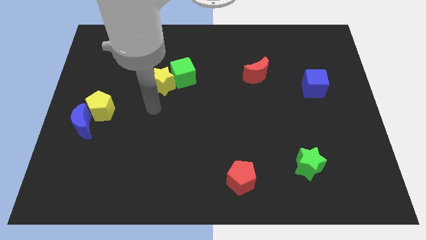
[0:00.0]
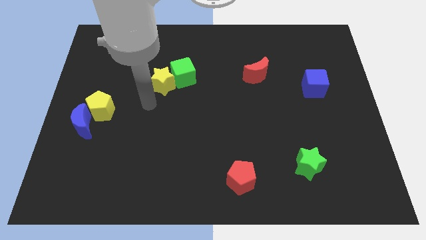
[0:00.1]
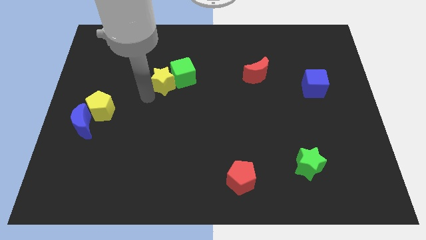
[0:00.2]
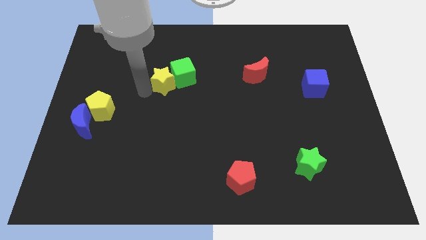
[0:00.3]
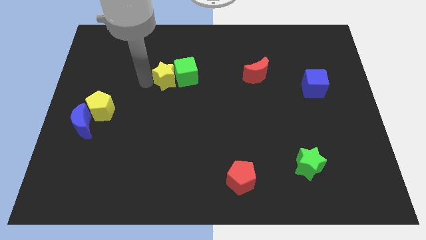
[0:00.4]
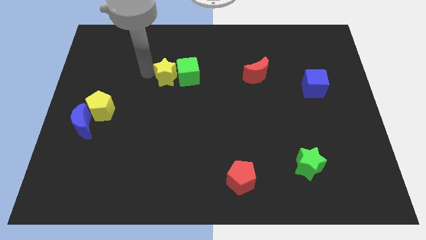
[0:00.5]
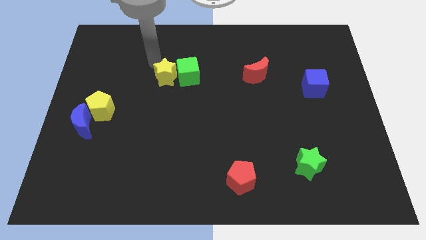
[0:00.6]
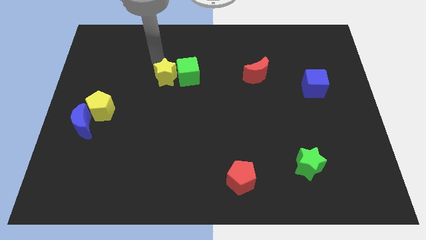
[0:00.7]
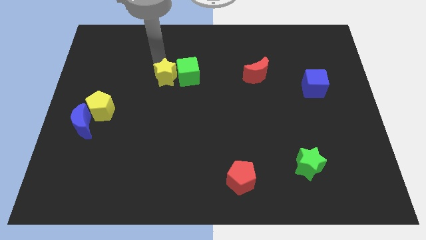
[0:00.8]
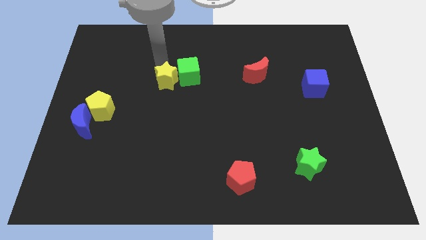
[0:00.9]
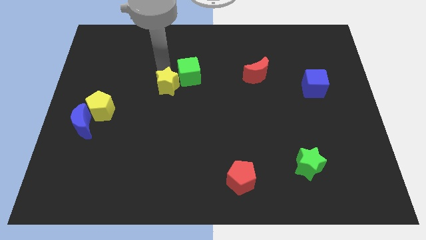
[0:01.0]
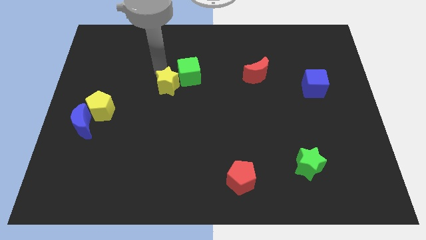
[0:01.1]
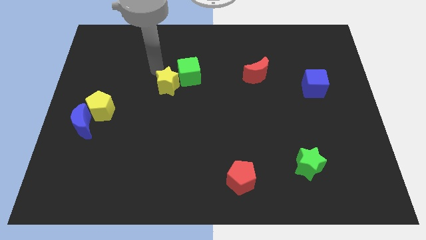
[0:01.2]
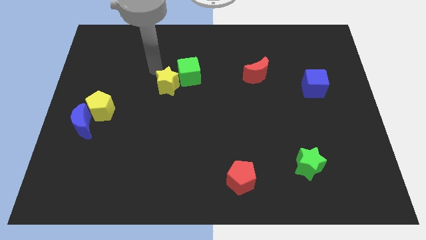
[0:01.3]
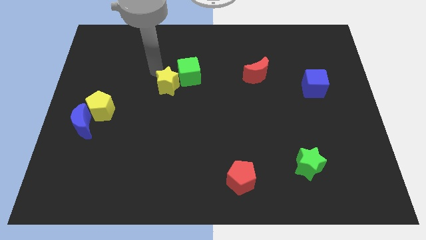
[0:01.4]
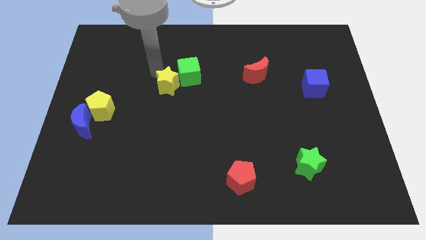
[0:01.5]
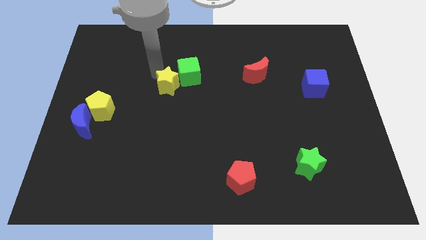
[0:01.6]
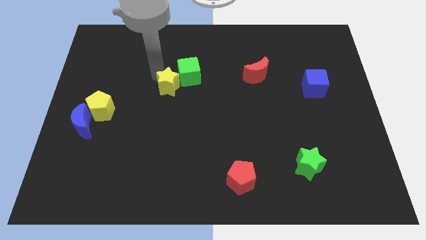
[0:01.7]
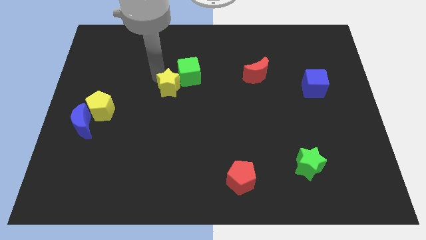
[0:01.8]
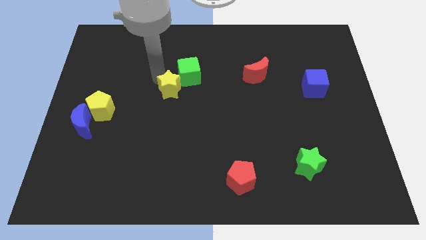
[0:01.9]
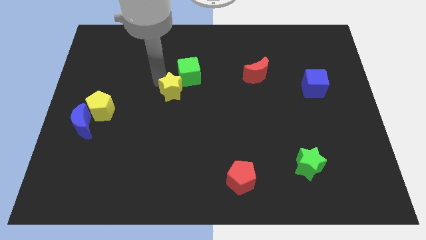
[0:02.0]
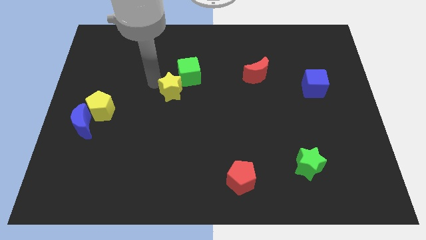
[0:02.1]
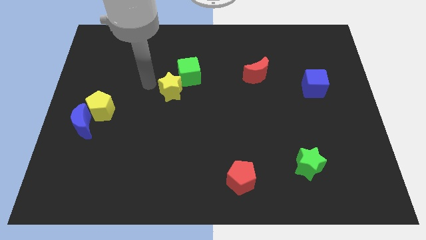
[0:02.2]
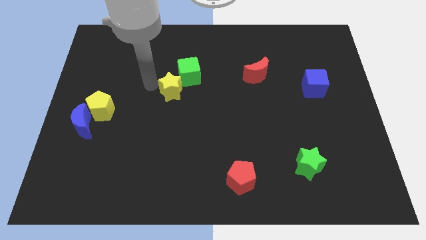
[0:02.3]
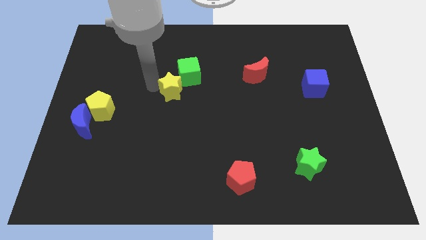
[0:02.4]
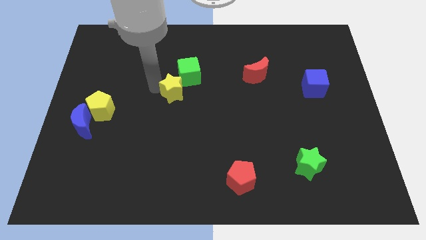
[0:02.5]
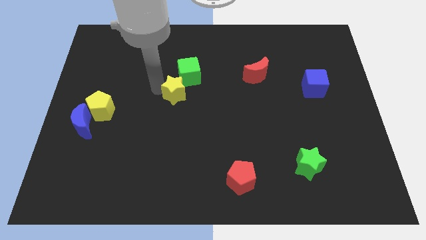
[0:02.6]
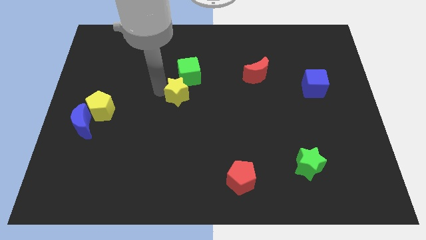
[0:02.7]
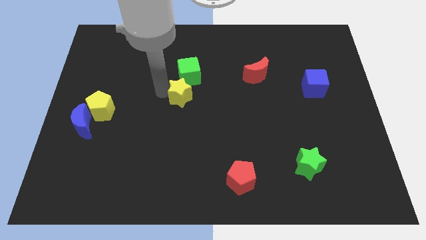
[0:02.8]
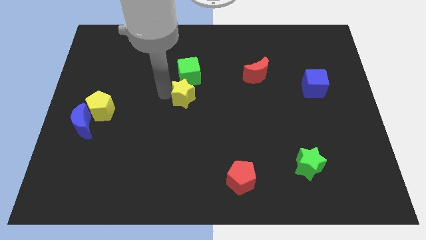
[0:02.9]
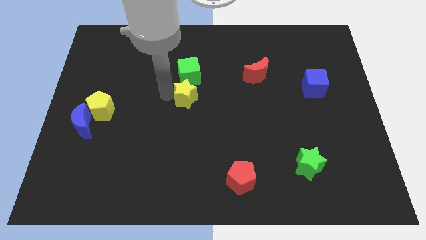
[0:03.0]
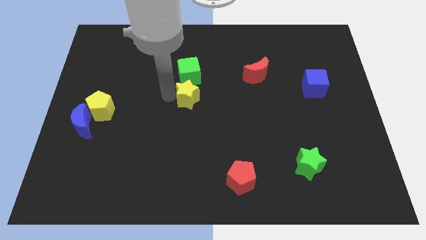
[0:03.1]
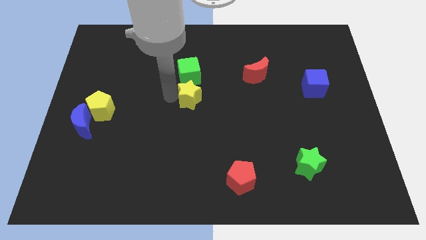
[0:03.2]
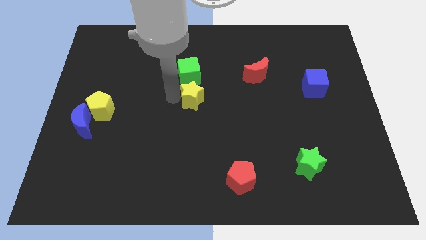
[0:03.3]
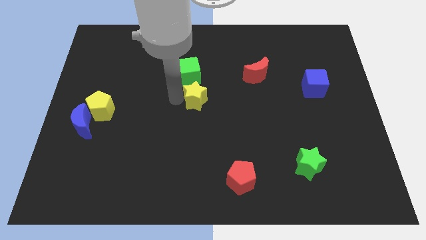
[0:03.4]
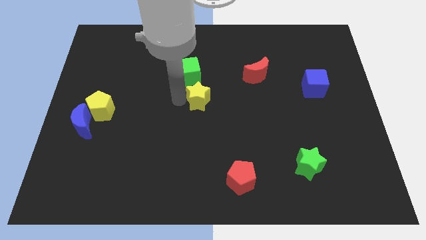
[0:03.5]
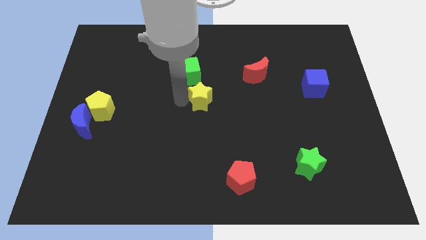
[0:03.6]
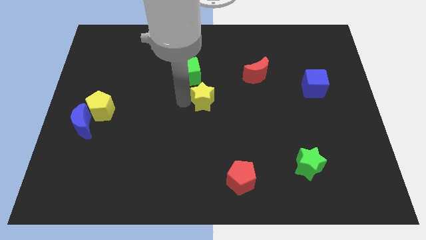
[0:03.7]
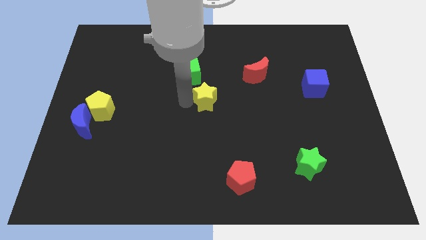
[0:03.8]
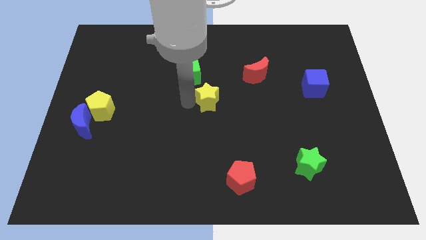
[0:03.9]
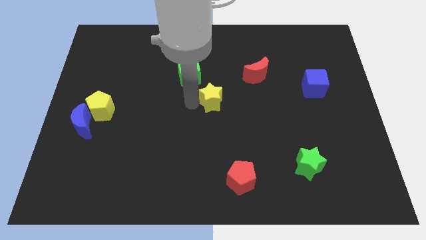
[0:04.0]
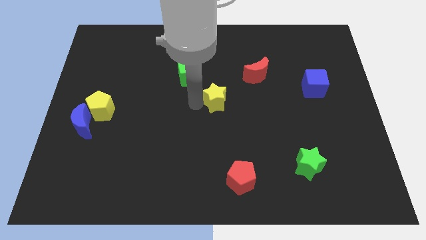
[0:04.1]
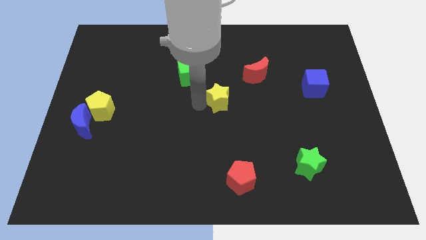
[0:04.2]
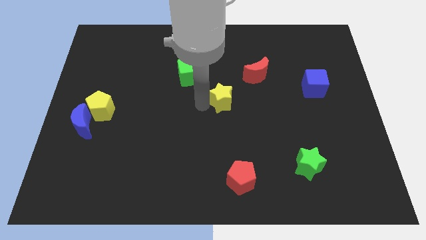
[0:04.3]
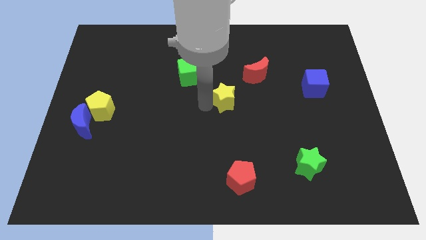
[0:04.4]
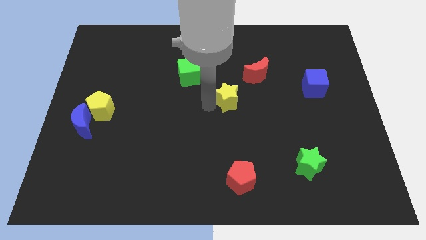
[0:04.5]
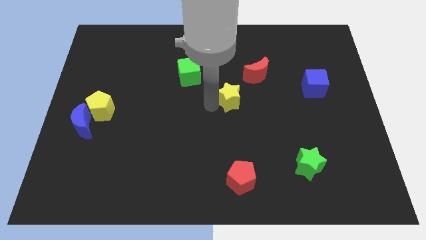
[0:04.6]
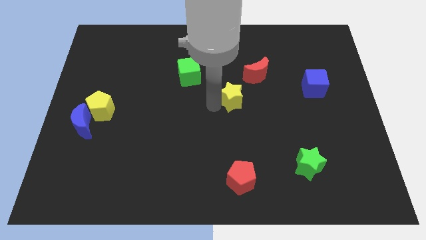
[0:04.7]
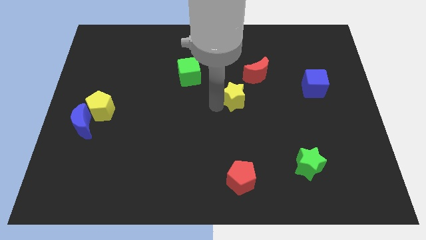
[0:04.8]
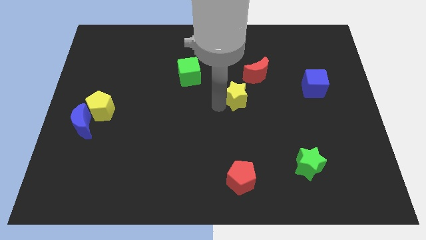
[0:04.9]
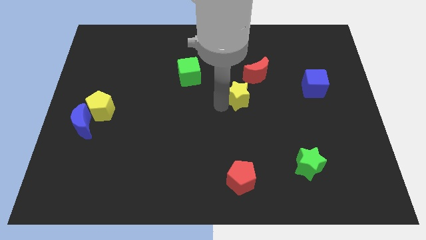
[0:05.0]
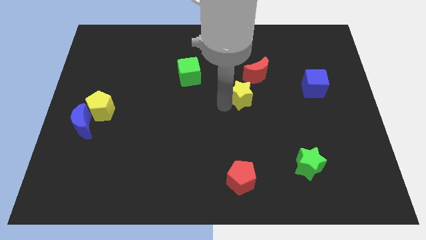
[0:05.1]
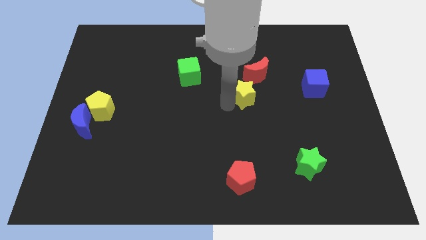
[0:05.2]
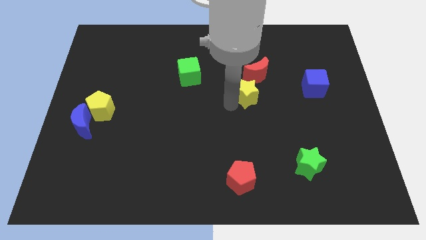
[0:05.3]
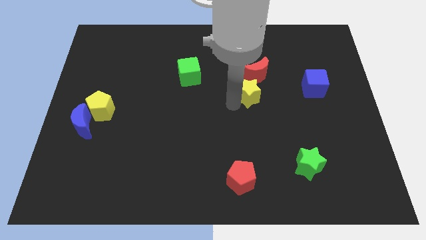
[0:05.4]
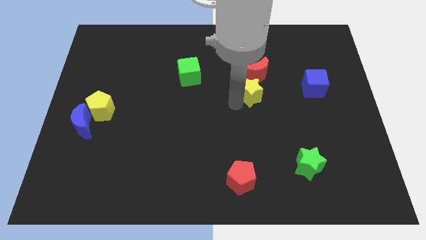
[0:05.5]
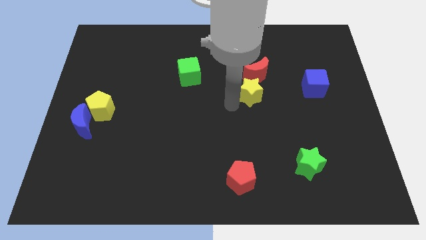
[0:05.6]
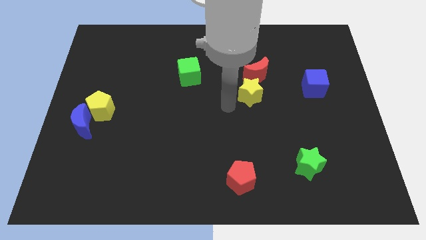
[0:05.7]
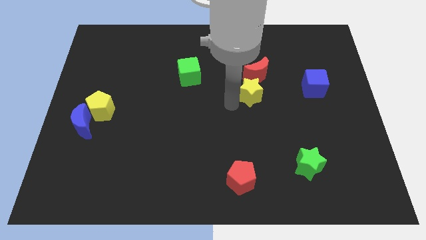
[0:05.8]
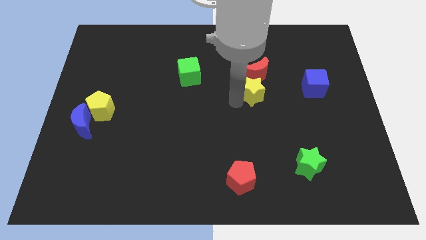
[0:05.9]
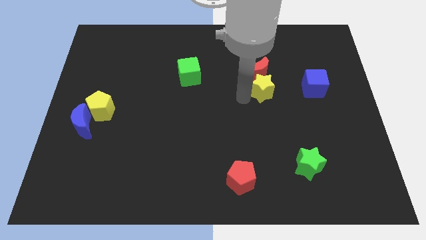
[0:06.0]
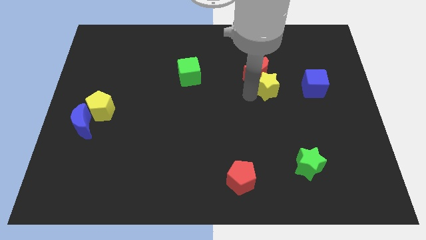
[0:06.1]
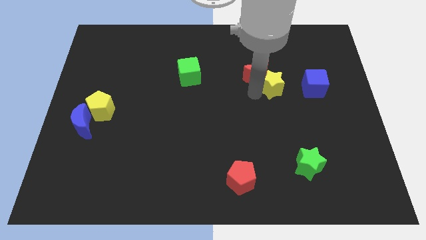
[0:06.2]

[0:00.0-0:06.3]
move the yellow star just right of the red moon

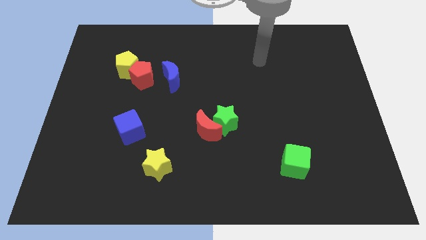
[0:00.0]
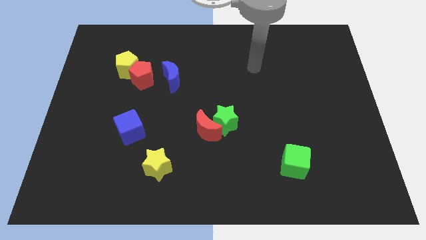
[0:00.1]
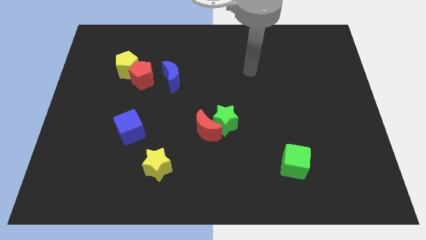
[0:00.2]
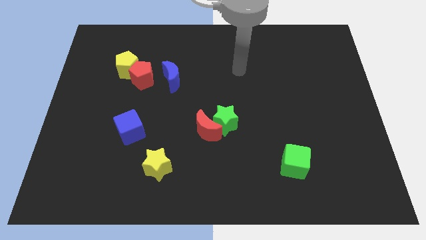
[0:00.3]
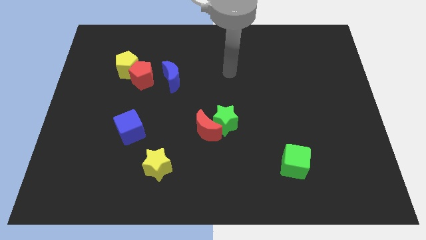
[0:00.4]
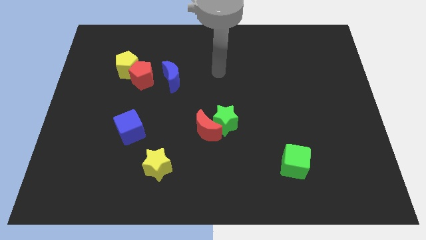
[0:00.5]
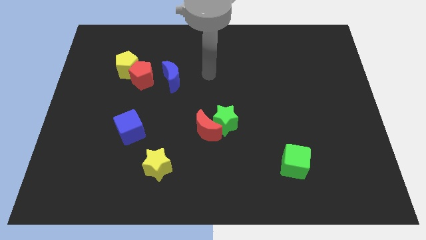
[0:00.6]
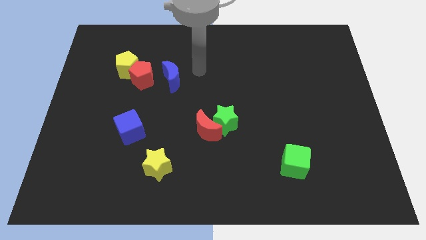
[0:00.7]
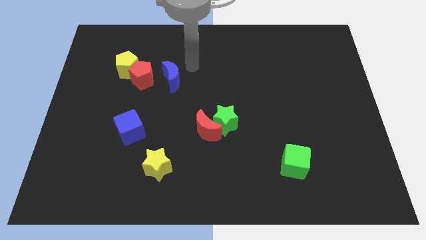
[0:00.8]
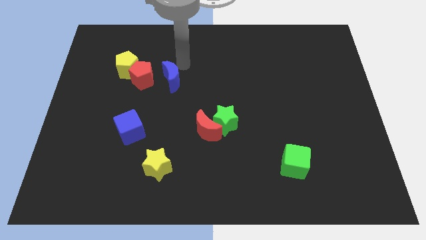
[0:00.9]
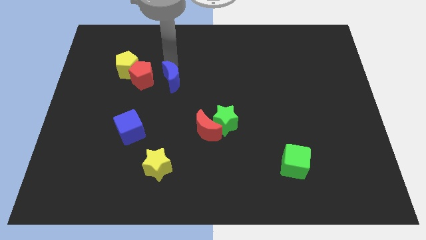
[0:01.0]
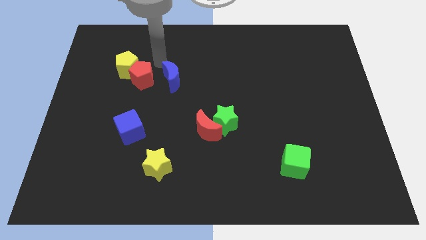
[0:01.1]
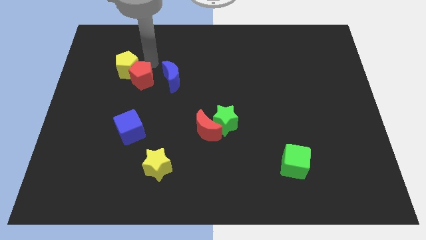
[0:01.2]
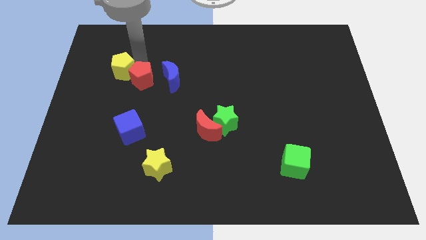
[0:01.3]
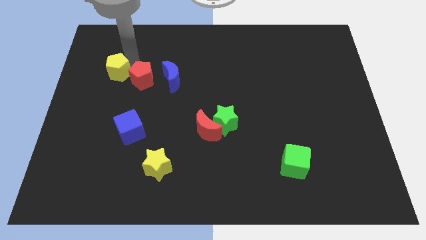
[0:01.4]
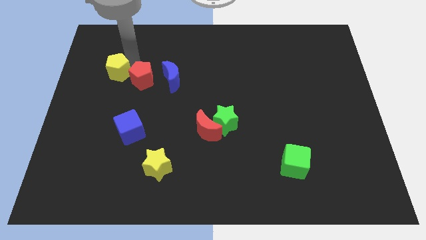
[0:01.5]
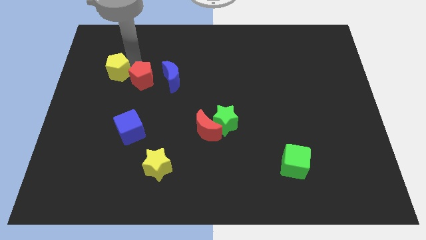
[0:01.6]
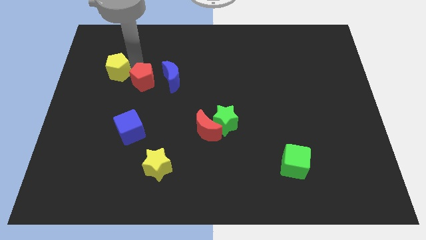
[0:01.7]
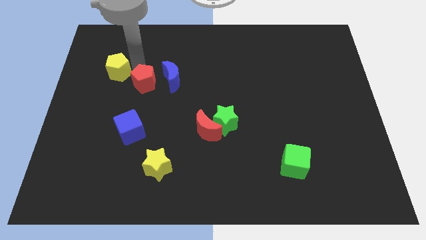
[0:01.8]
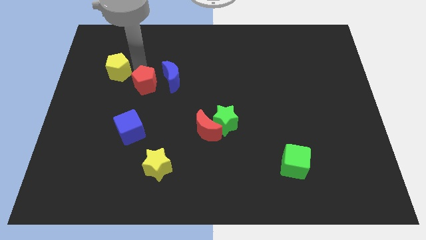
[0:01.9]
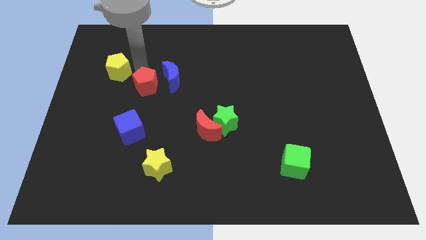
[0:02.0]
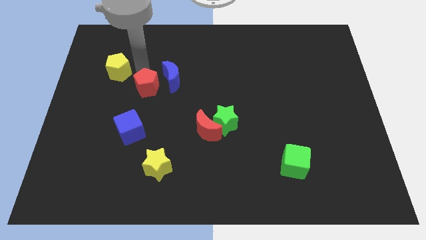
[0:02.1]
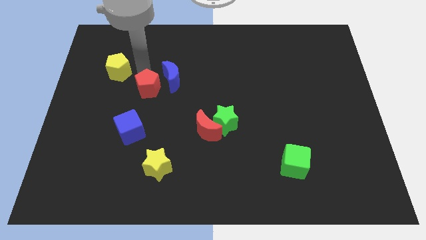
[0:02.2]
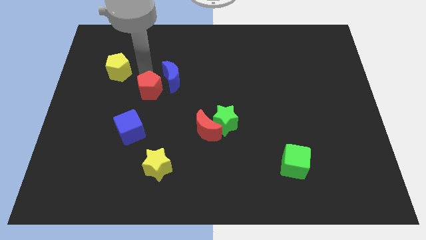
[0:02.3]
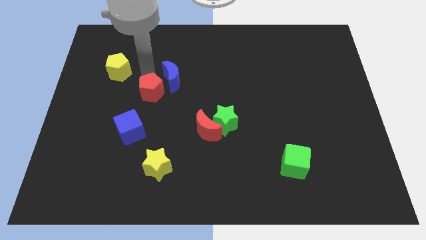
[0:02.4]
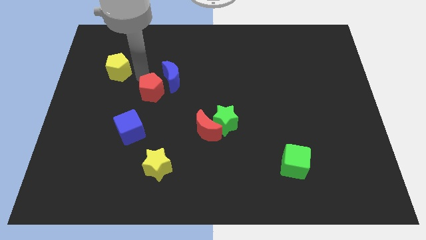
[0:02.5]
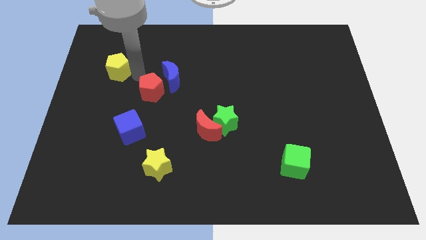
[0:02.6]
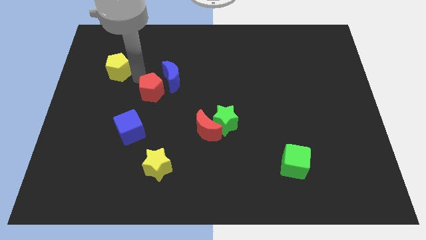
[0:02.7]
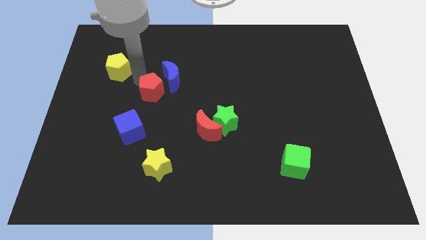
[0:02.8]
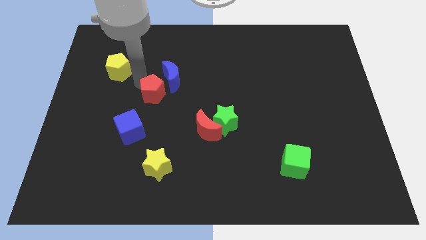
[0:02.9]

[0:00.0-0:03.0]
put the red pentagon to the bottom of the blue moon
